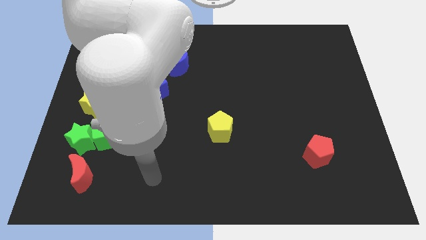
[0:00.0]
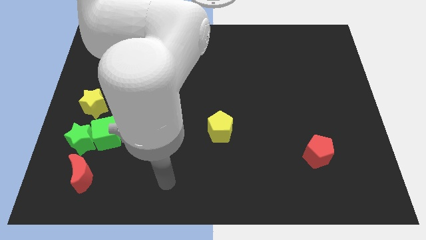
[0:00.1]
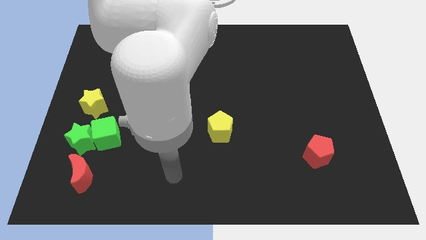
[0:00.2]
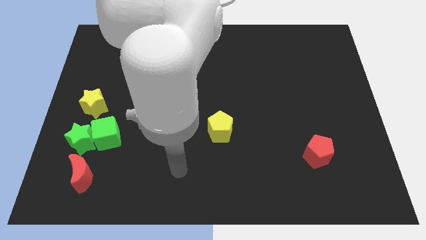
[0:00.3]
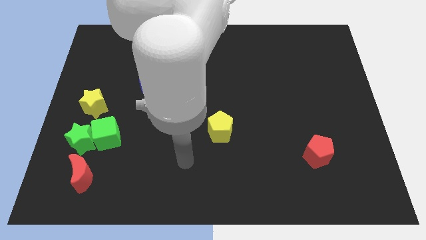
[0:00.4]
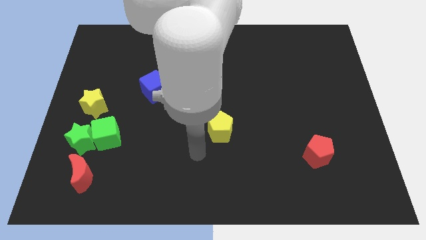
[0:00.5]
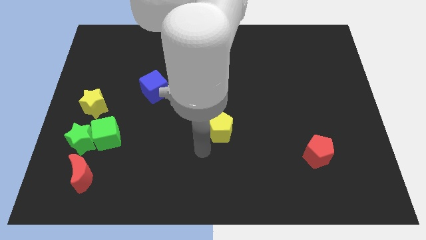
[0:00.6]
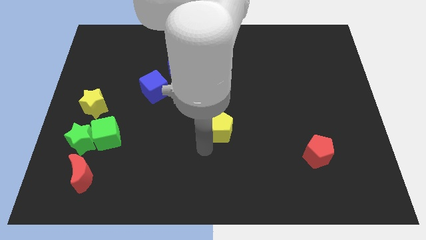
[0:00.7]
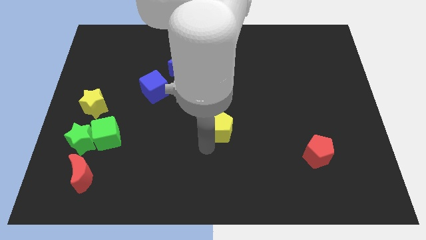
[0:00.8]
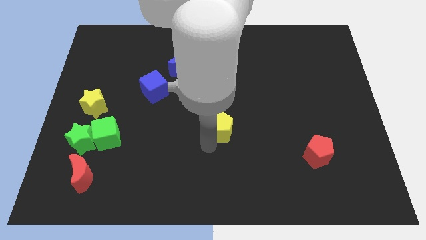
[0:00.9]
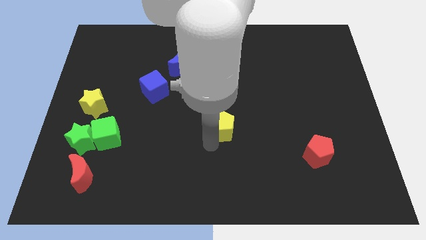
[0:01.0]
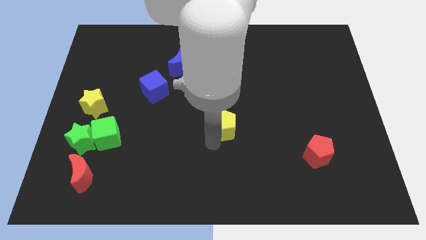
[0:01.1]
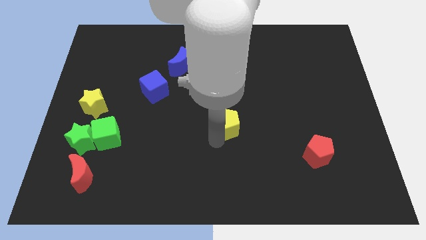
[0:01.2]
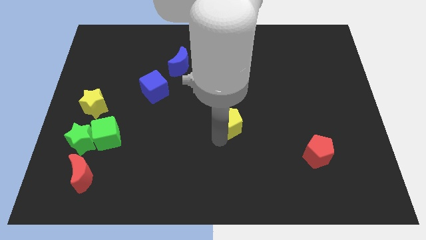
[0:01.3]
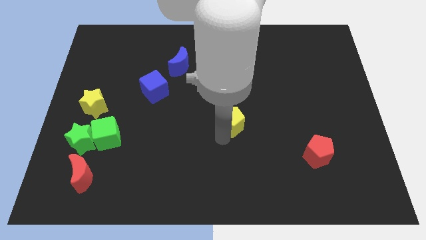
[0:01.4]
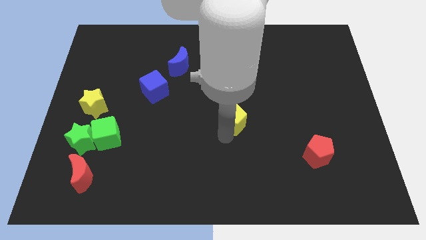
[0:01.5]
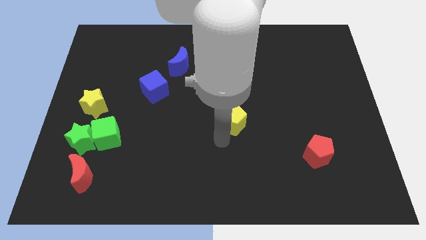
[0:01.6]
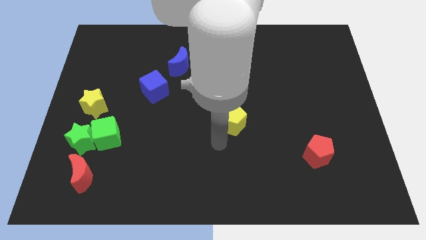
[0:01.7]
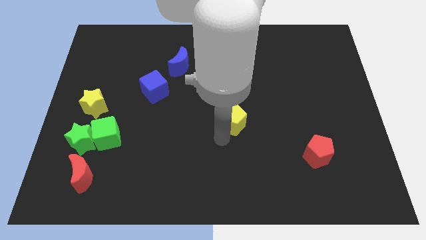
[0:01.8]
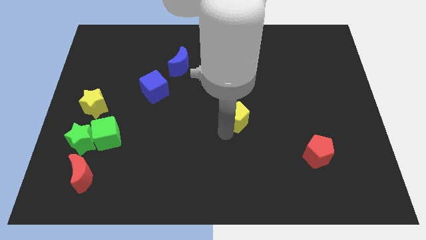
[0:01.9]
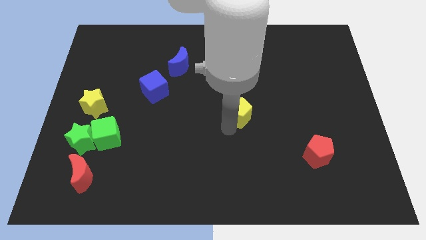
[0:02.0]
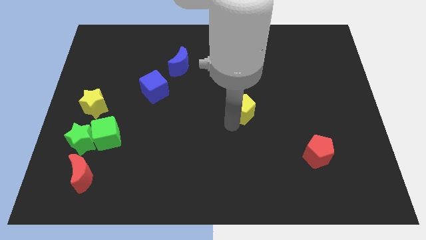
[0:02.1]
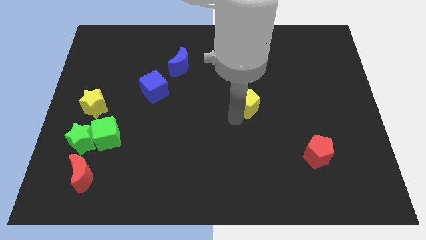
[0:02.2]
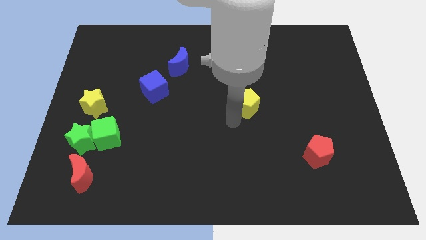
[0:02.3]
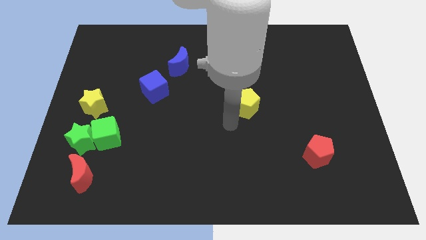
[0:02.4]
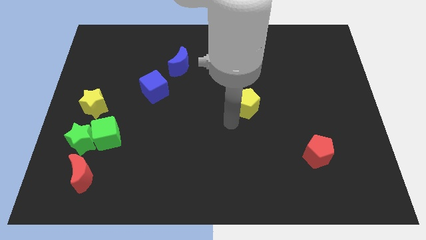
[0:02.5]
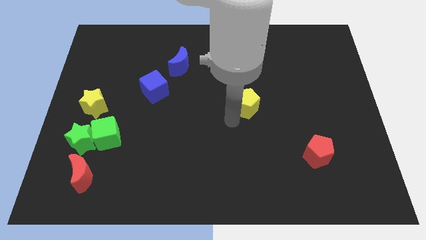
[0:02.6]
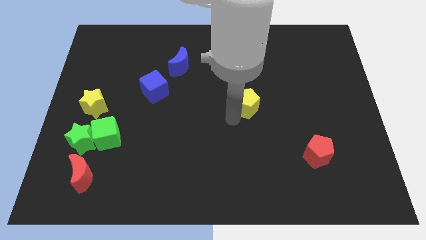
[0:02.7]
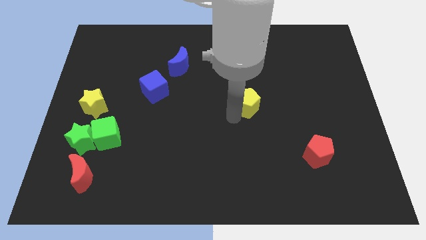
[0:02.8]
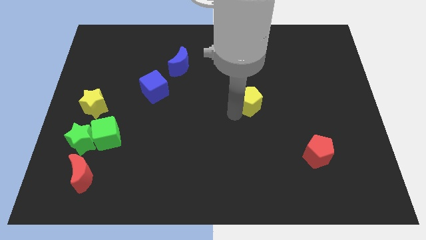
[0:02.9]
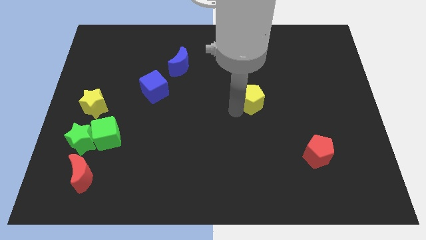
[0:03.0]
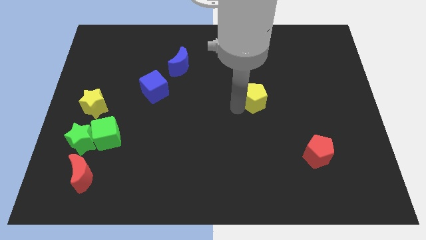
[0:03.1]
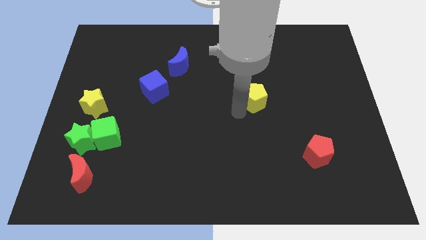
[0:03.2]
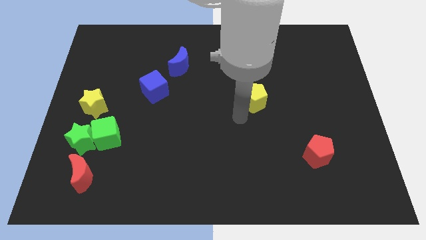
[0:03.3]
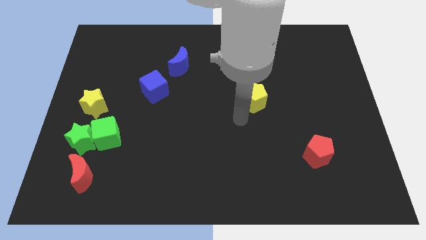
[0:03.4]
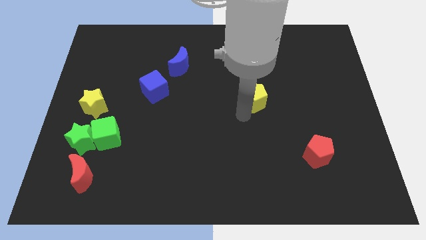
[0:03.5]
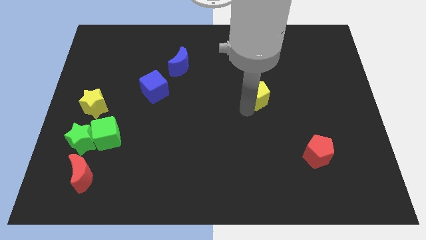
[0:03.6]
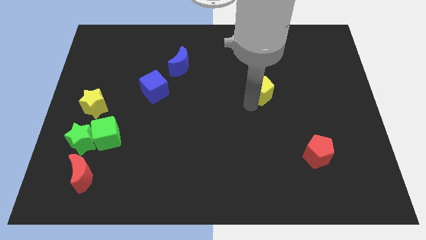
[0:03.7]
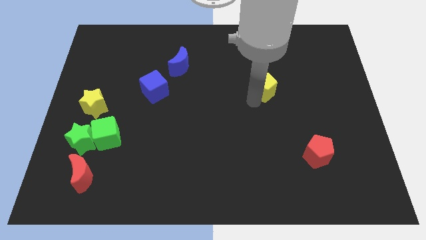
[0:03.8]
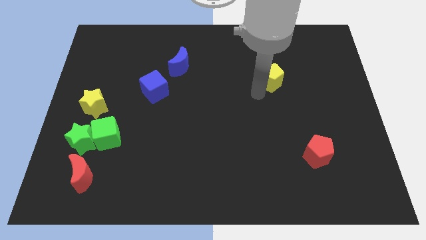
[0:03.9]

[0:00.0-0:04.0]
move the yellow pentagon diagonally upwards and to the right

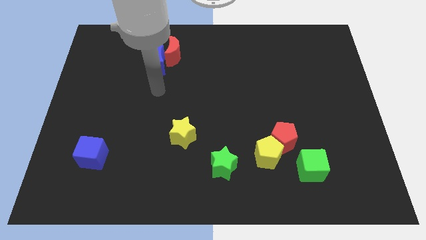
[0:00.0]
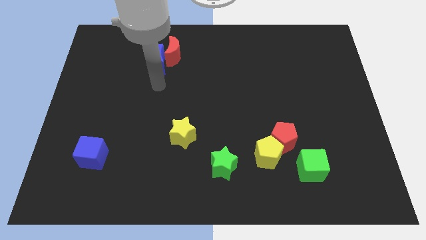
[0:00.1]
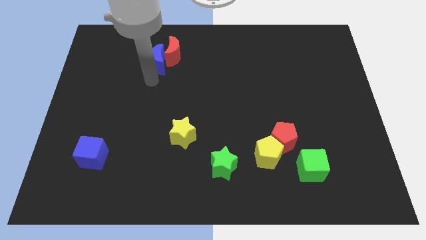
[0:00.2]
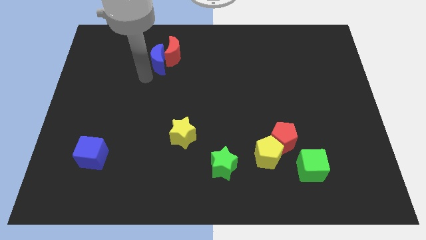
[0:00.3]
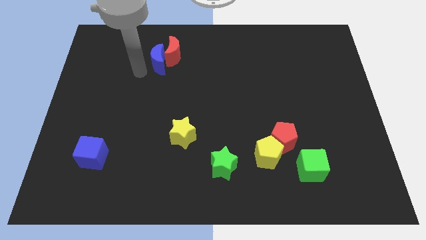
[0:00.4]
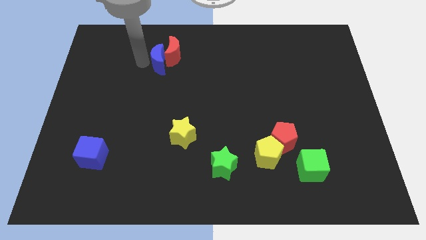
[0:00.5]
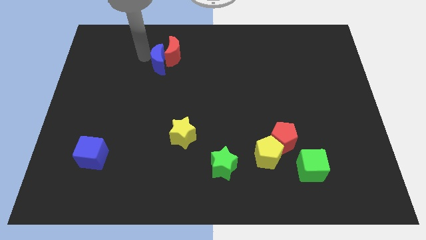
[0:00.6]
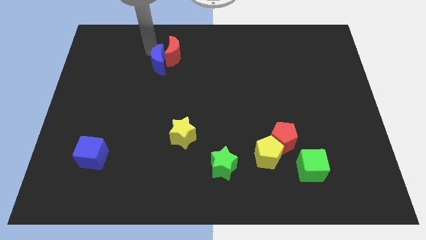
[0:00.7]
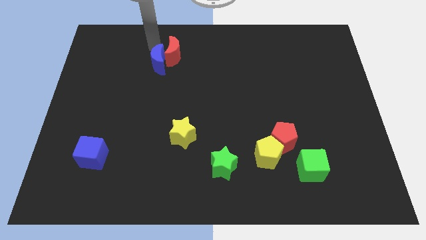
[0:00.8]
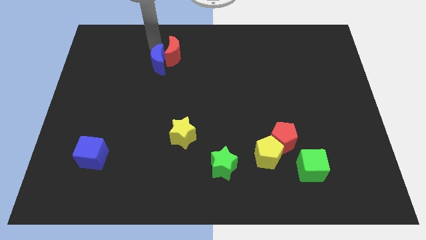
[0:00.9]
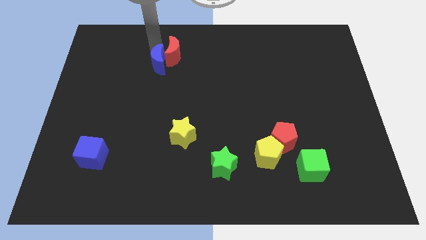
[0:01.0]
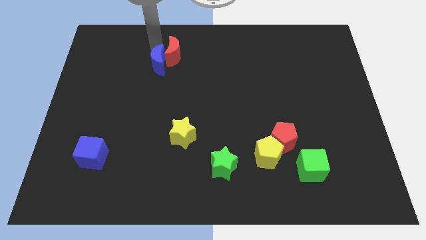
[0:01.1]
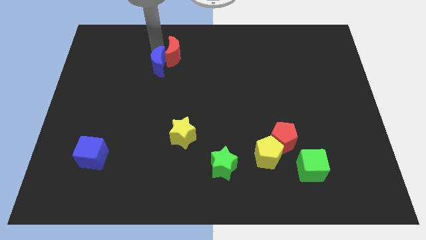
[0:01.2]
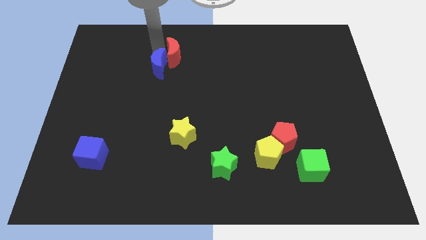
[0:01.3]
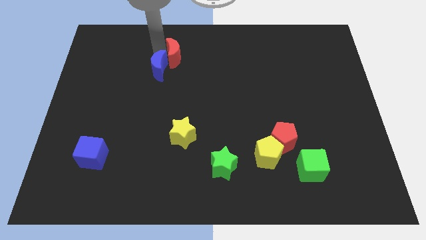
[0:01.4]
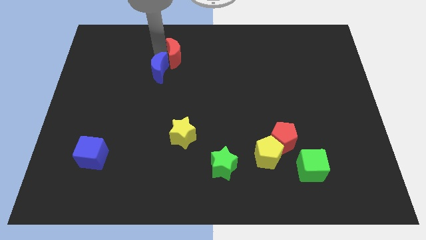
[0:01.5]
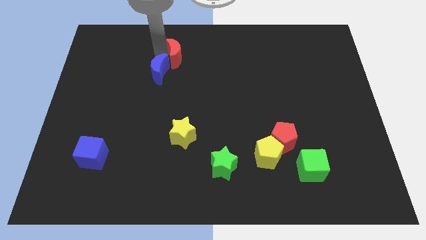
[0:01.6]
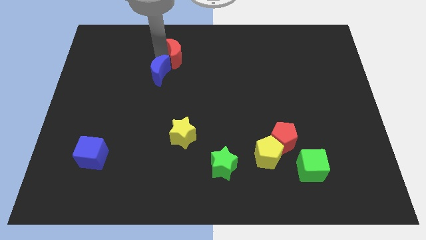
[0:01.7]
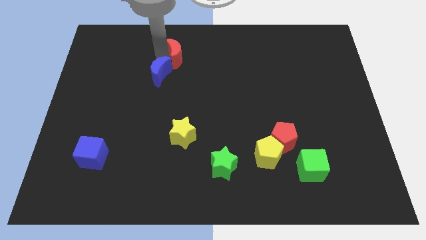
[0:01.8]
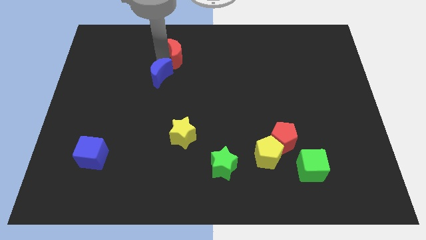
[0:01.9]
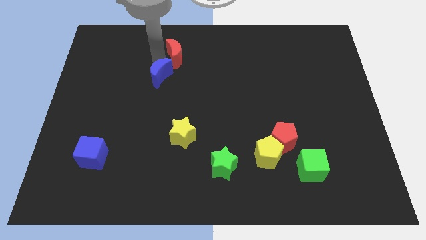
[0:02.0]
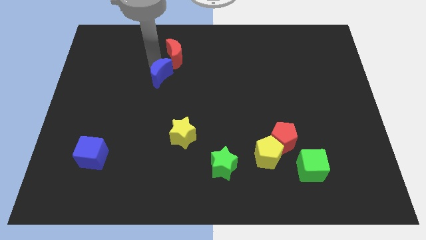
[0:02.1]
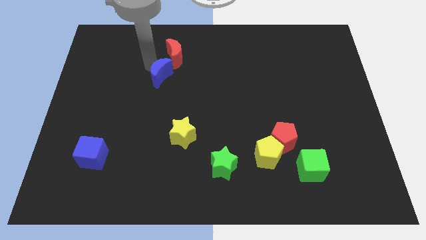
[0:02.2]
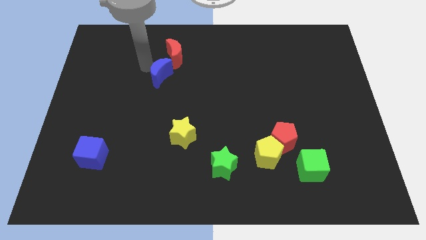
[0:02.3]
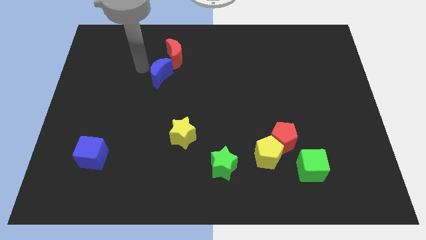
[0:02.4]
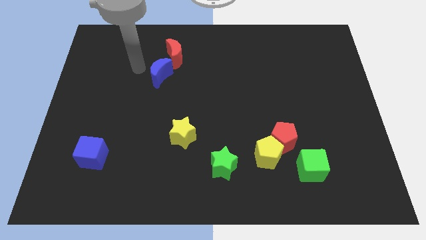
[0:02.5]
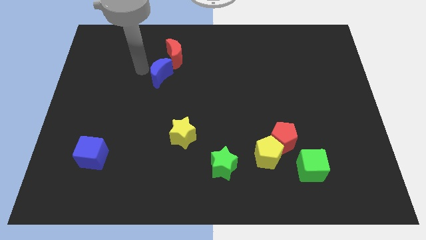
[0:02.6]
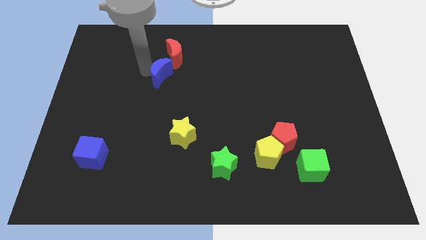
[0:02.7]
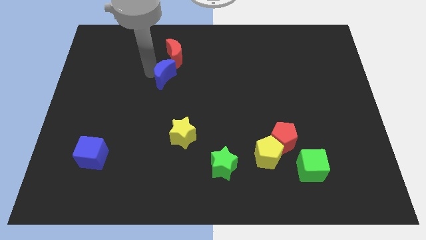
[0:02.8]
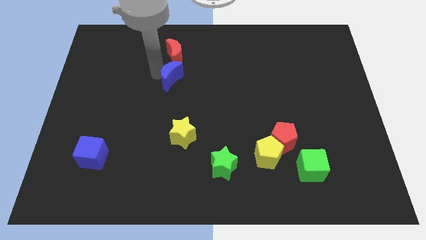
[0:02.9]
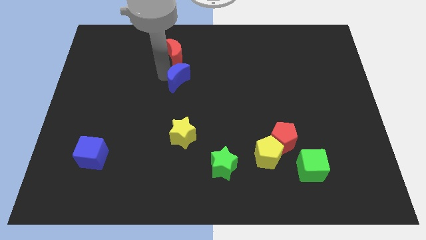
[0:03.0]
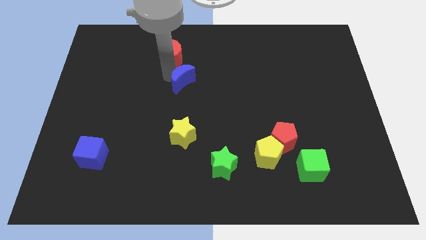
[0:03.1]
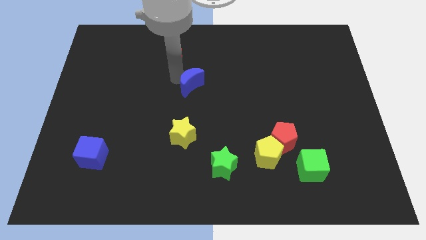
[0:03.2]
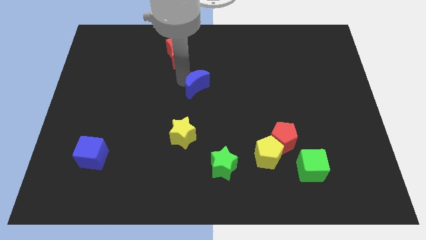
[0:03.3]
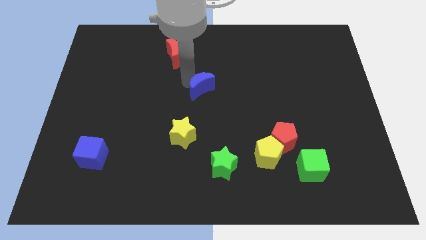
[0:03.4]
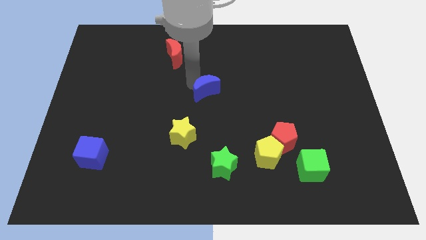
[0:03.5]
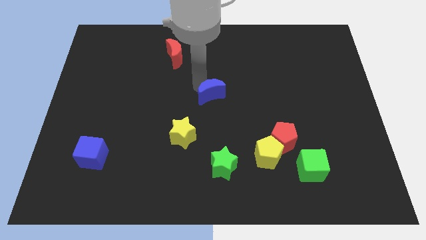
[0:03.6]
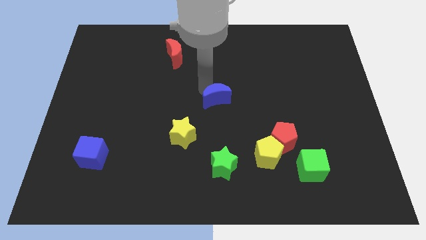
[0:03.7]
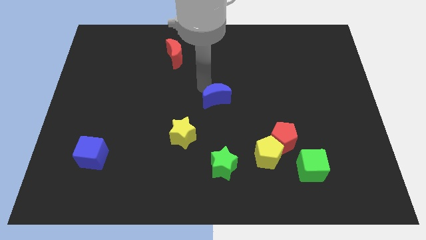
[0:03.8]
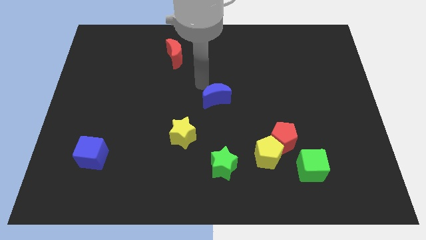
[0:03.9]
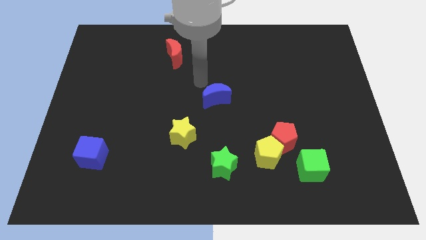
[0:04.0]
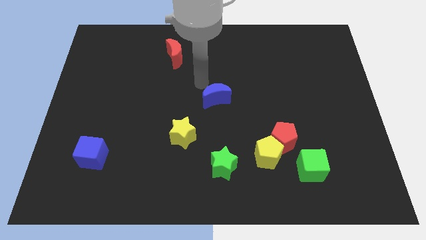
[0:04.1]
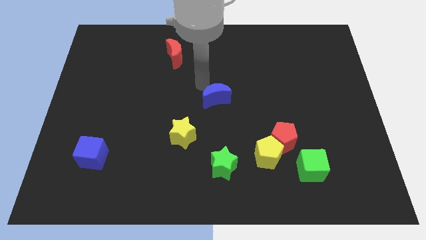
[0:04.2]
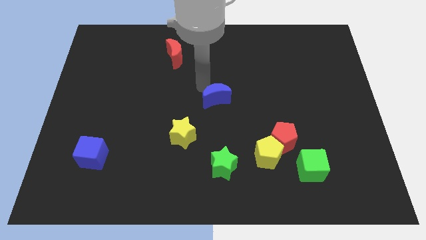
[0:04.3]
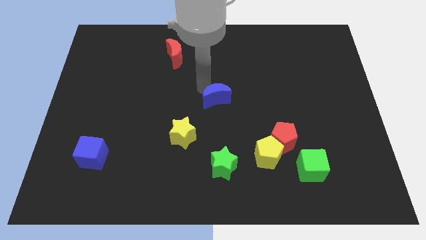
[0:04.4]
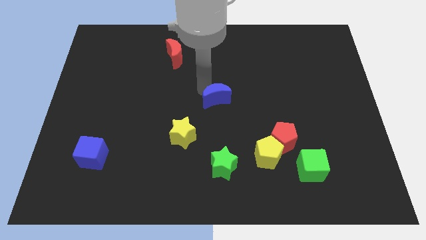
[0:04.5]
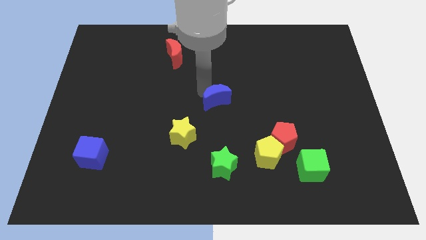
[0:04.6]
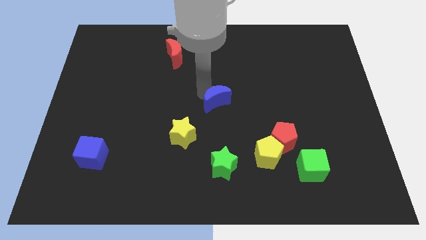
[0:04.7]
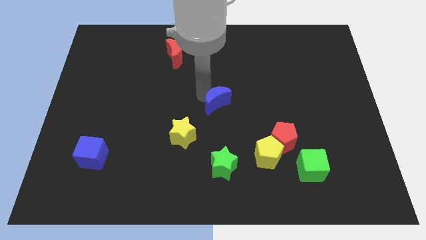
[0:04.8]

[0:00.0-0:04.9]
move the blue moon diagonally downwards and to the right
